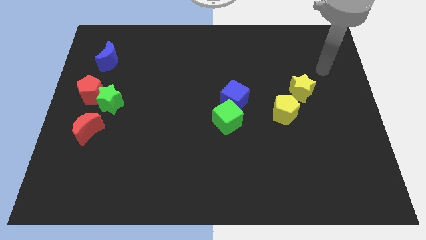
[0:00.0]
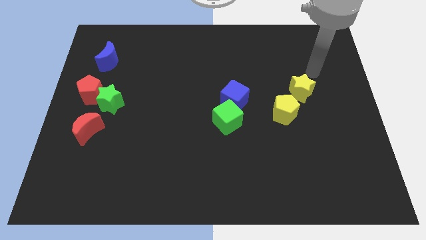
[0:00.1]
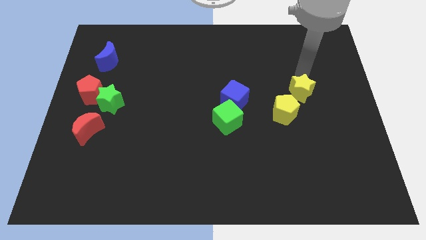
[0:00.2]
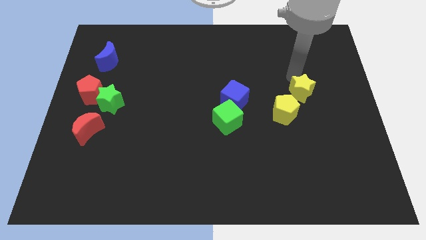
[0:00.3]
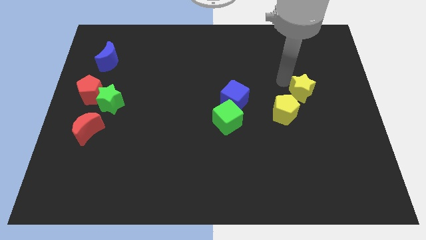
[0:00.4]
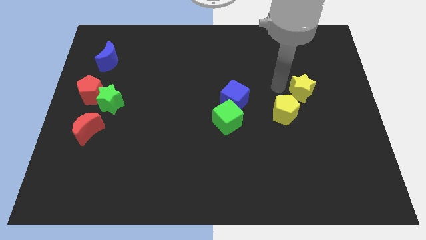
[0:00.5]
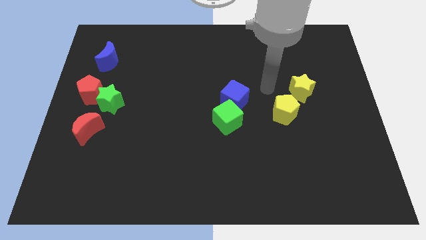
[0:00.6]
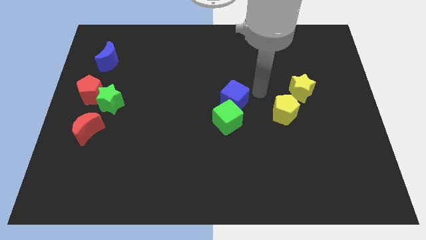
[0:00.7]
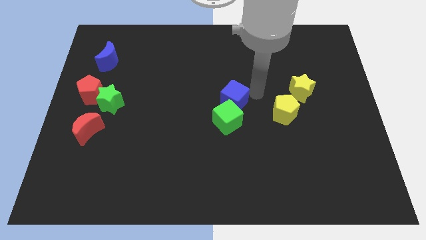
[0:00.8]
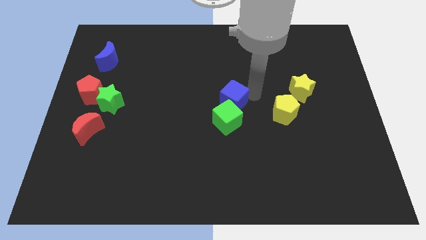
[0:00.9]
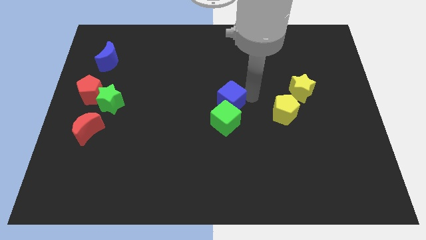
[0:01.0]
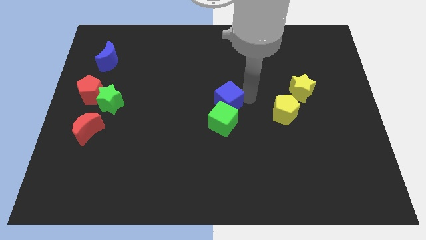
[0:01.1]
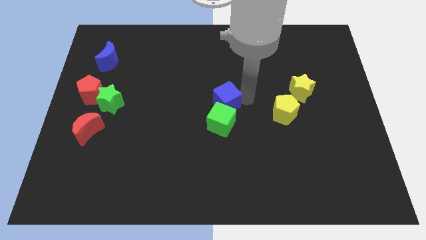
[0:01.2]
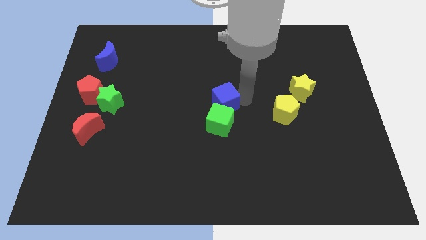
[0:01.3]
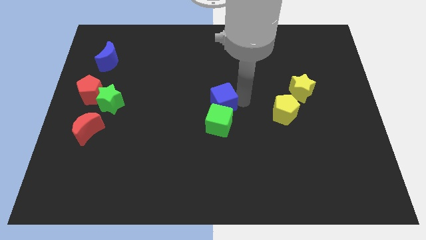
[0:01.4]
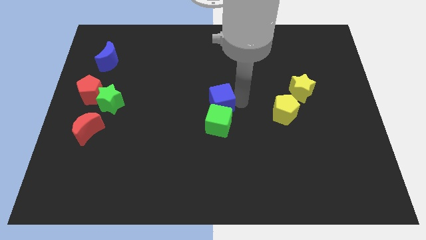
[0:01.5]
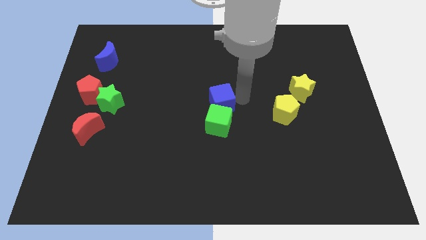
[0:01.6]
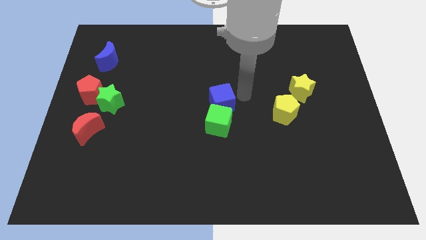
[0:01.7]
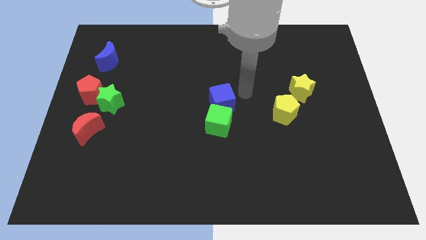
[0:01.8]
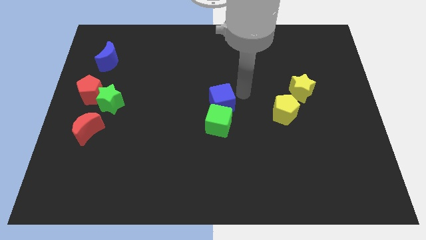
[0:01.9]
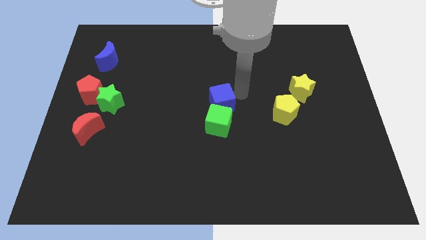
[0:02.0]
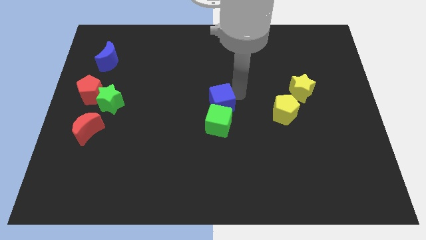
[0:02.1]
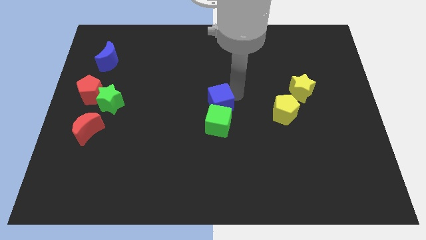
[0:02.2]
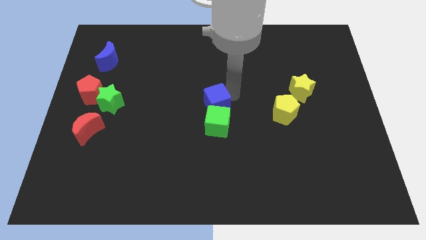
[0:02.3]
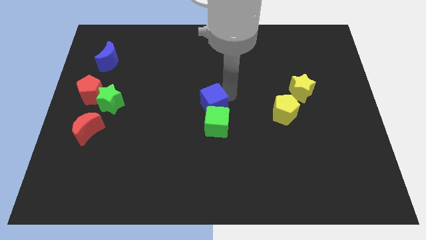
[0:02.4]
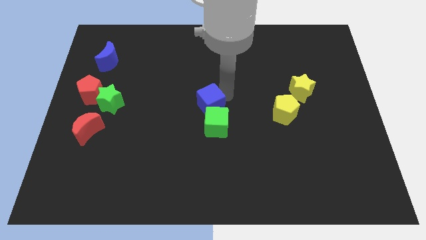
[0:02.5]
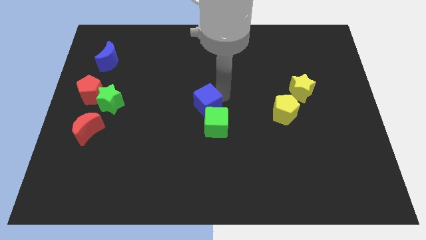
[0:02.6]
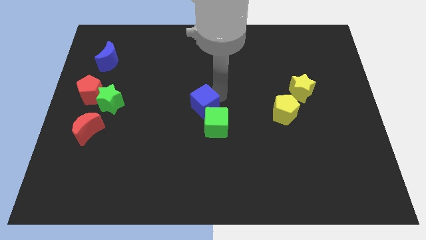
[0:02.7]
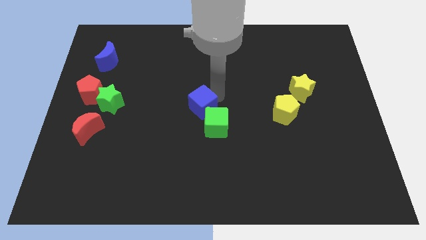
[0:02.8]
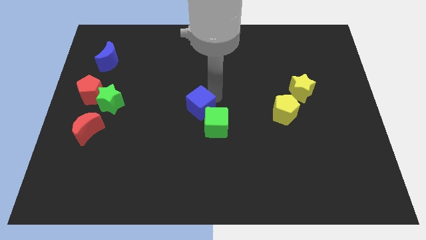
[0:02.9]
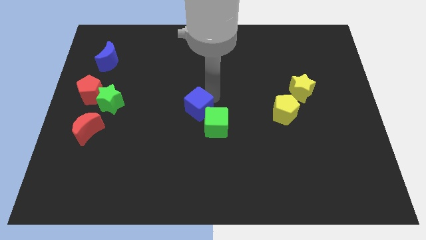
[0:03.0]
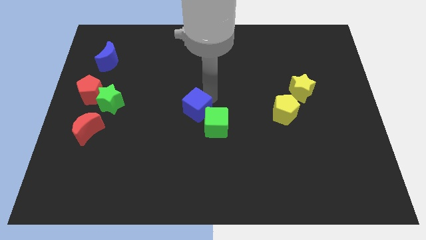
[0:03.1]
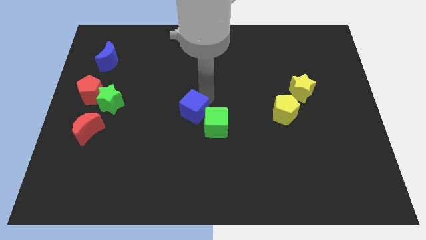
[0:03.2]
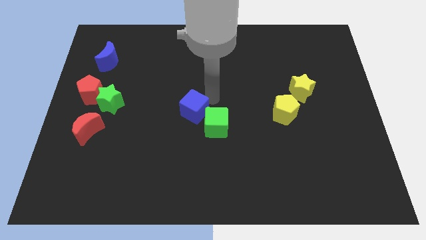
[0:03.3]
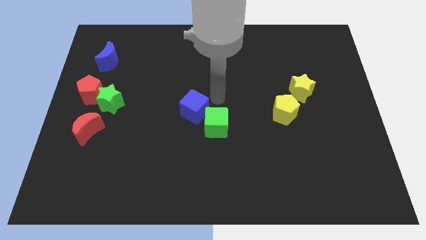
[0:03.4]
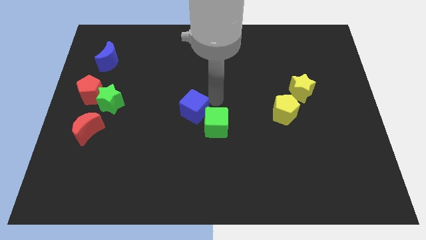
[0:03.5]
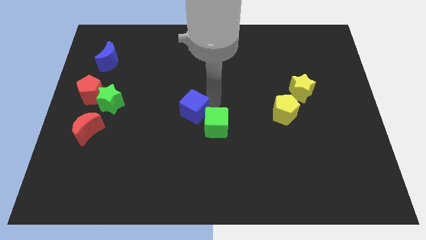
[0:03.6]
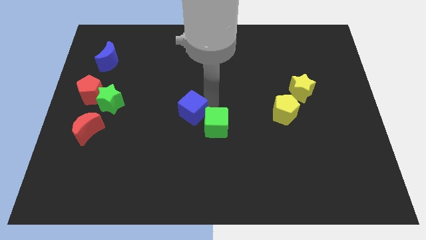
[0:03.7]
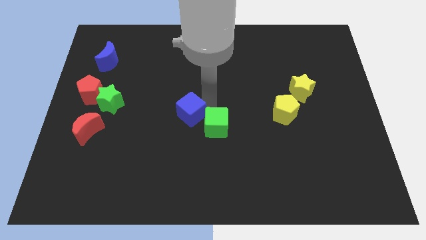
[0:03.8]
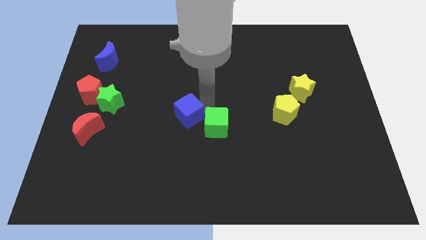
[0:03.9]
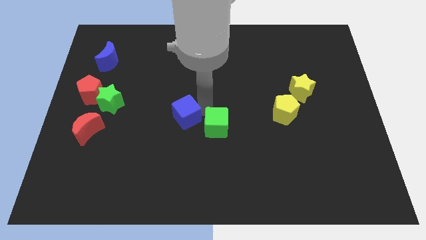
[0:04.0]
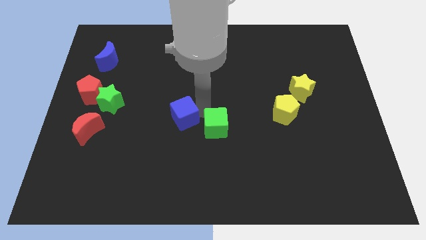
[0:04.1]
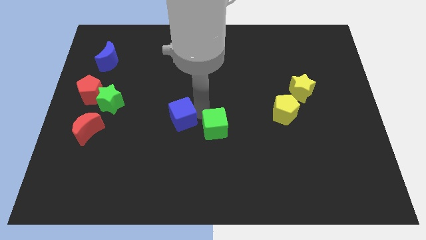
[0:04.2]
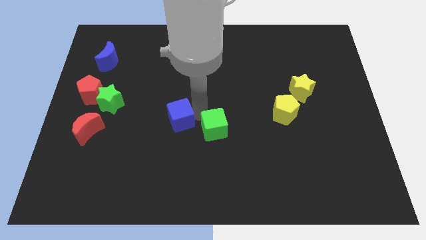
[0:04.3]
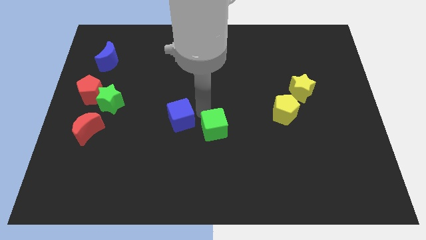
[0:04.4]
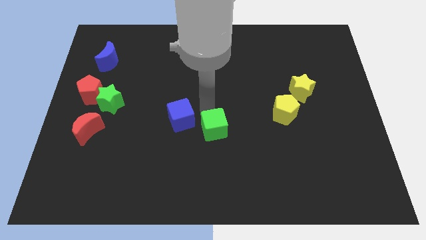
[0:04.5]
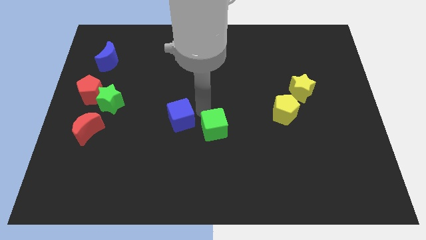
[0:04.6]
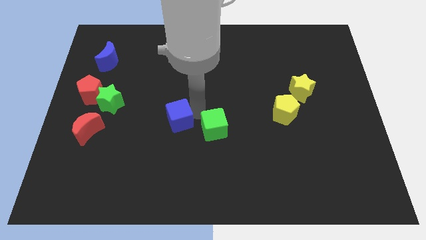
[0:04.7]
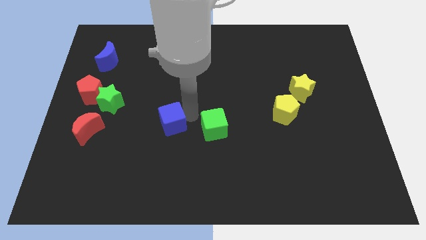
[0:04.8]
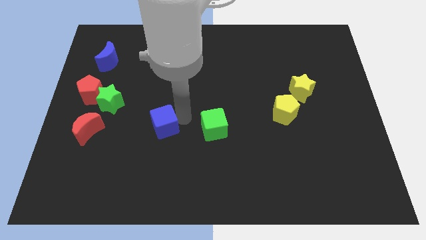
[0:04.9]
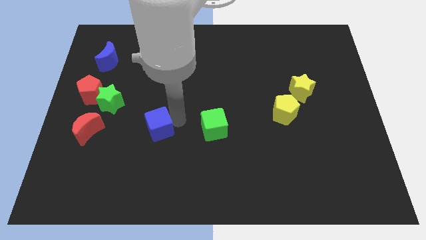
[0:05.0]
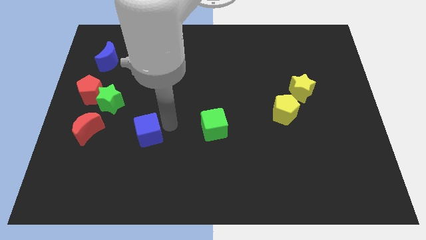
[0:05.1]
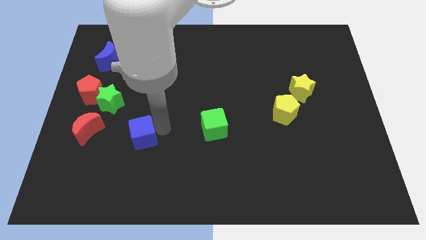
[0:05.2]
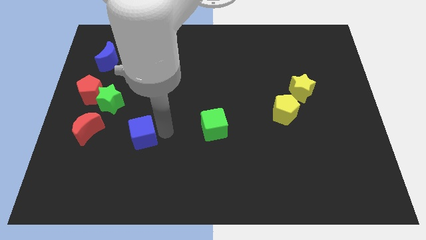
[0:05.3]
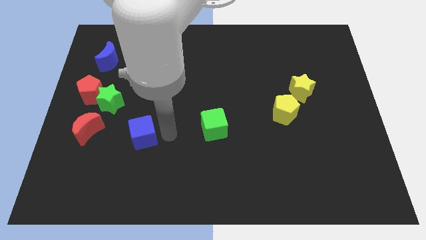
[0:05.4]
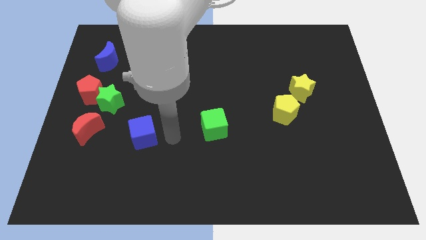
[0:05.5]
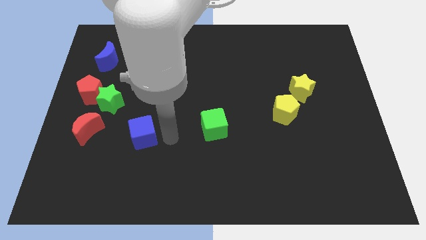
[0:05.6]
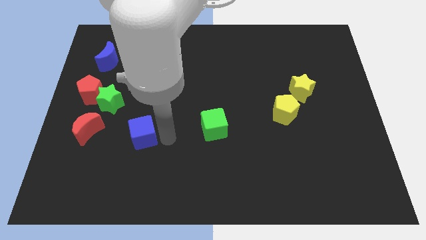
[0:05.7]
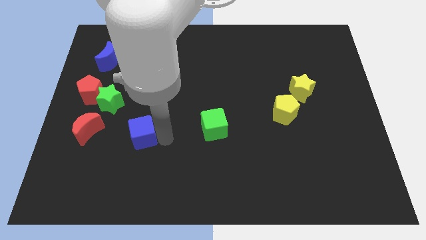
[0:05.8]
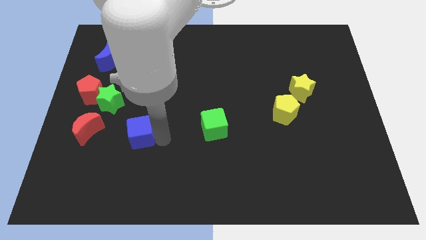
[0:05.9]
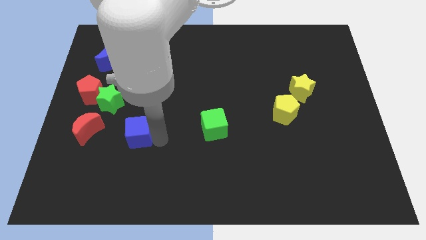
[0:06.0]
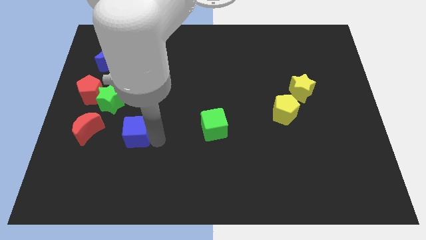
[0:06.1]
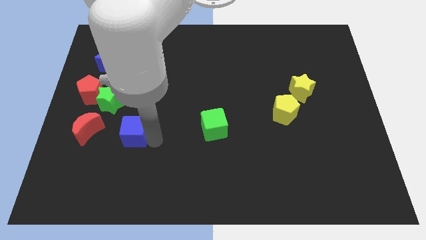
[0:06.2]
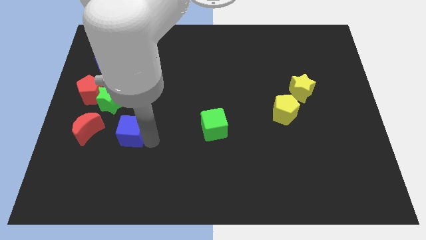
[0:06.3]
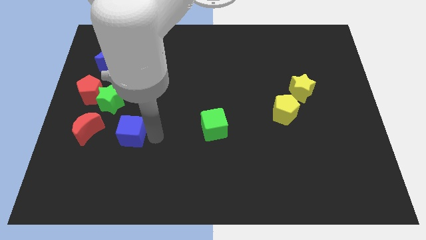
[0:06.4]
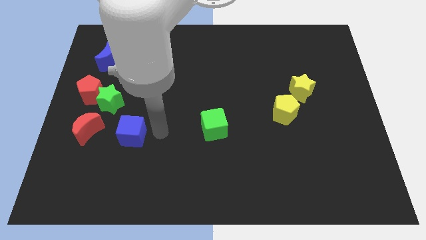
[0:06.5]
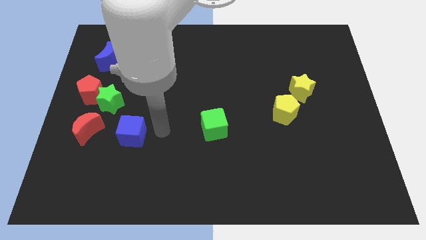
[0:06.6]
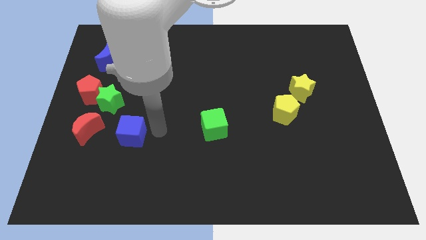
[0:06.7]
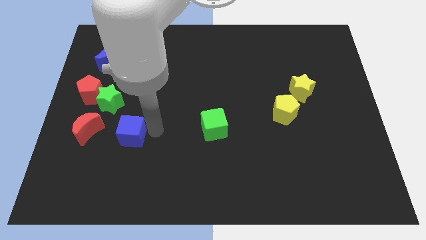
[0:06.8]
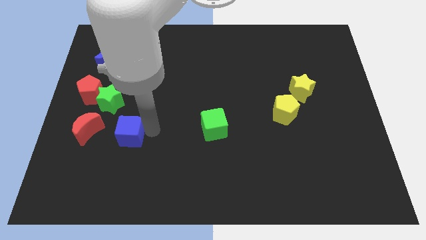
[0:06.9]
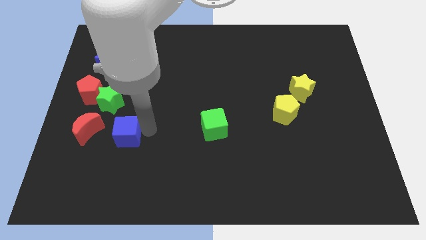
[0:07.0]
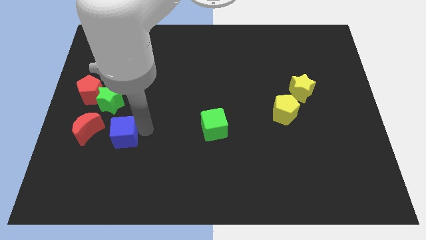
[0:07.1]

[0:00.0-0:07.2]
slide the blue cube below the green star
